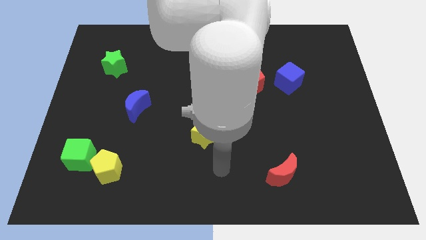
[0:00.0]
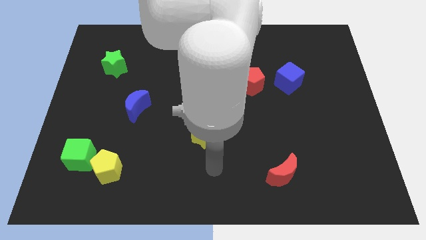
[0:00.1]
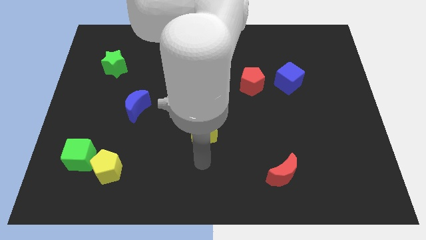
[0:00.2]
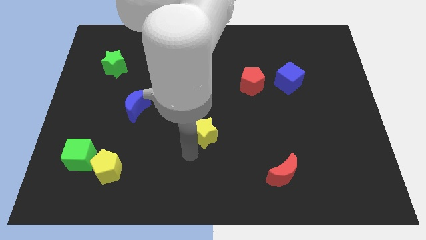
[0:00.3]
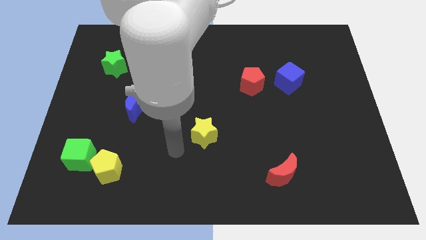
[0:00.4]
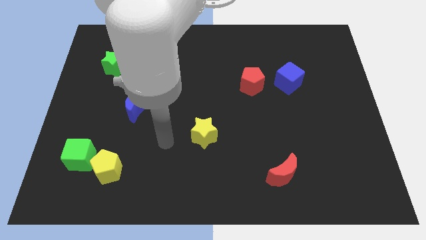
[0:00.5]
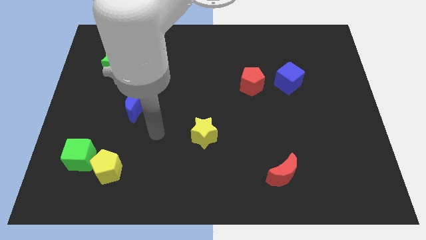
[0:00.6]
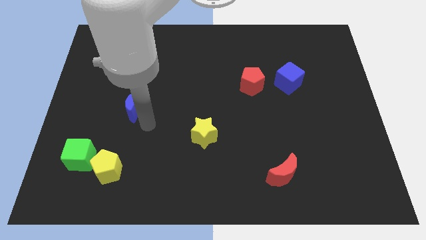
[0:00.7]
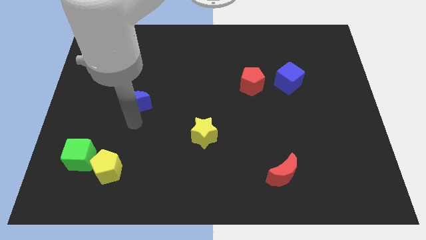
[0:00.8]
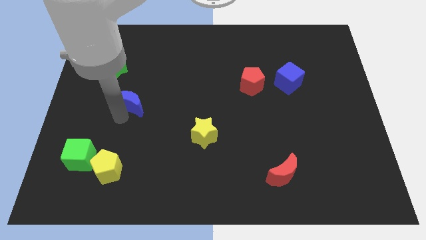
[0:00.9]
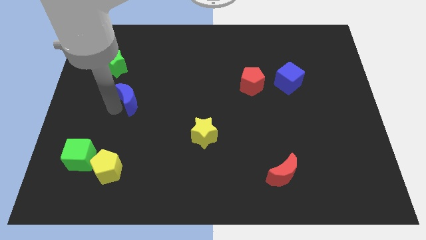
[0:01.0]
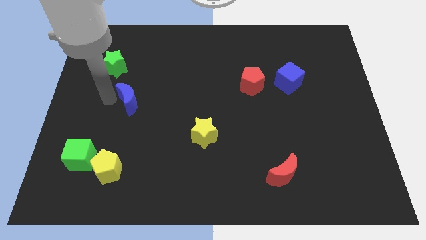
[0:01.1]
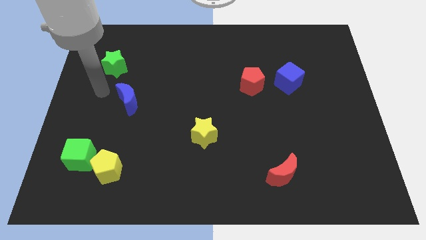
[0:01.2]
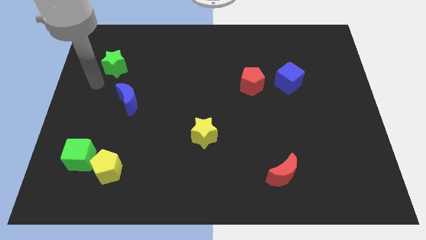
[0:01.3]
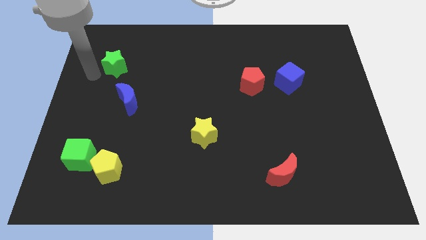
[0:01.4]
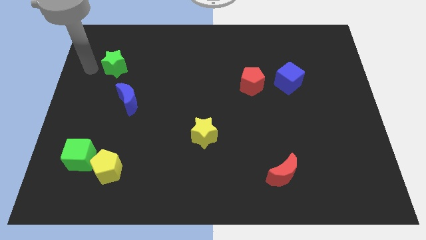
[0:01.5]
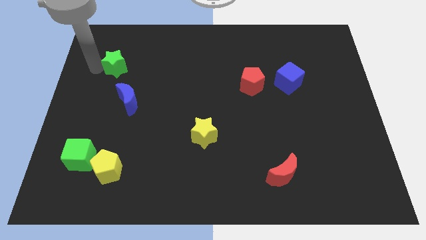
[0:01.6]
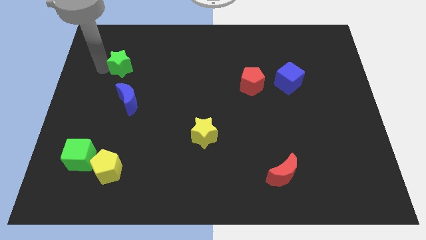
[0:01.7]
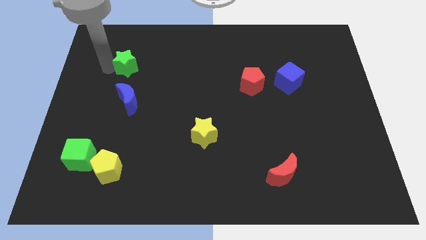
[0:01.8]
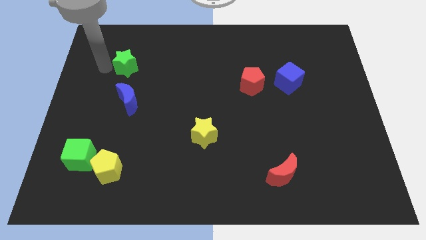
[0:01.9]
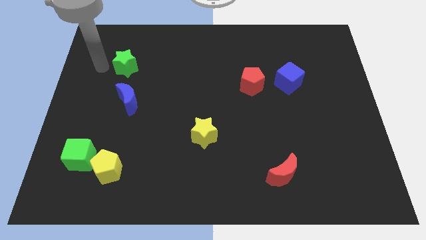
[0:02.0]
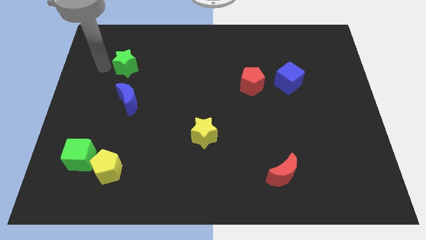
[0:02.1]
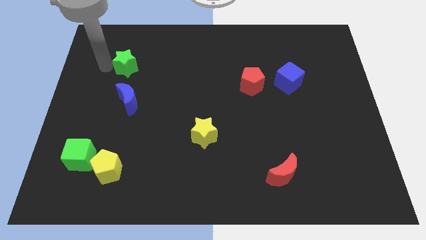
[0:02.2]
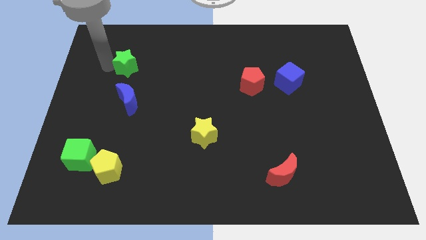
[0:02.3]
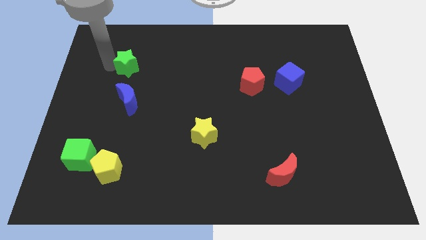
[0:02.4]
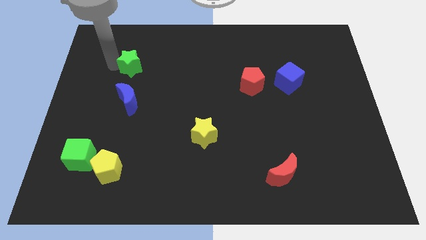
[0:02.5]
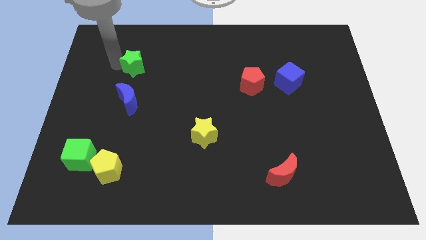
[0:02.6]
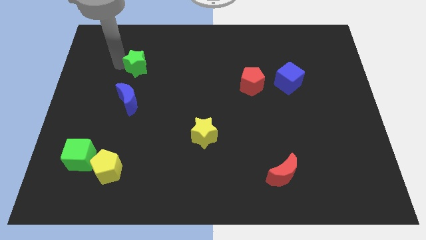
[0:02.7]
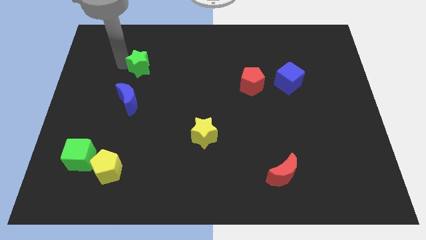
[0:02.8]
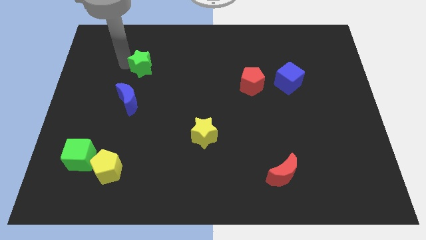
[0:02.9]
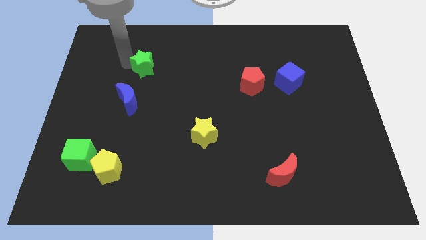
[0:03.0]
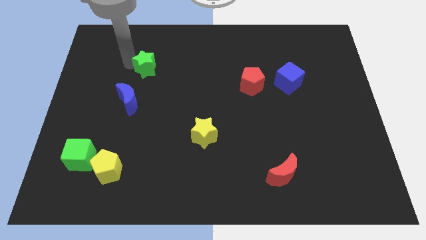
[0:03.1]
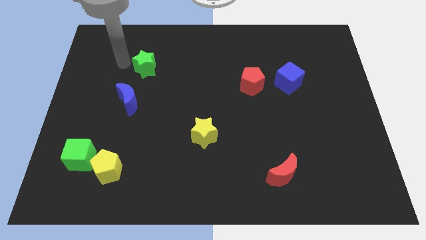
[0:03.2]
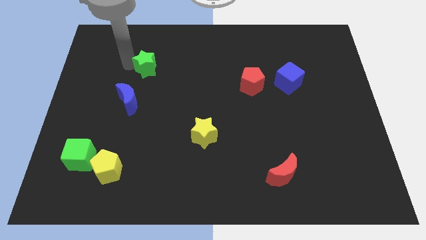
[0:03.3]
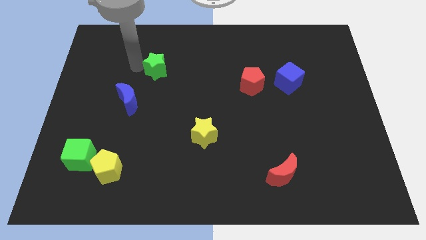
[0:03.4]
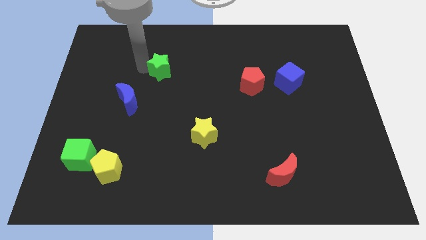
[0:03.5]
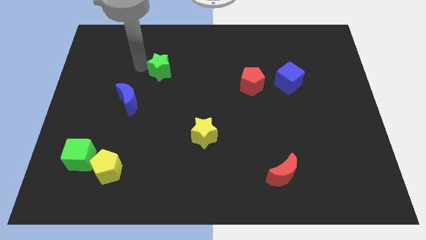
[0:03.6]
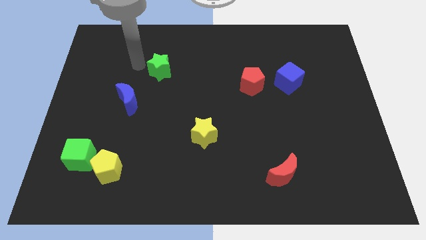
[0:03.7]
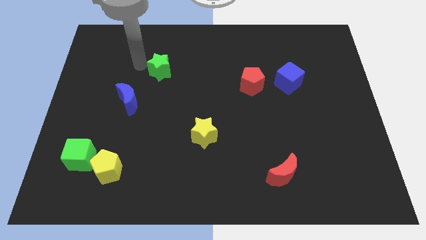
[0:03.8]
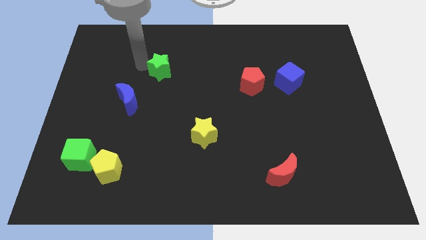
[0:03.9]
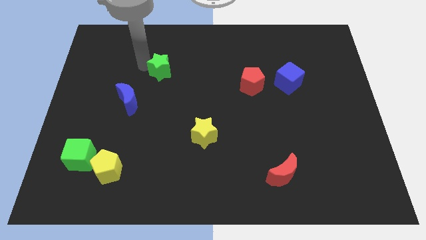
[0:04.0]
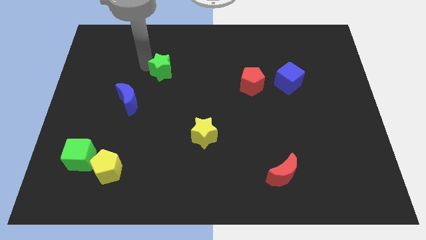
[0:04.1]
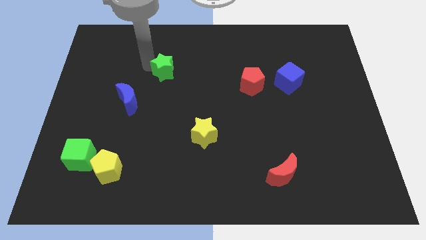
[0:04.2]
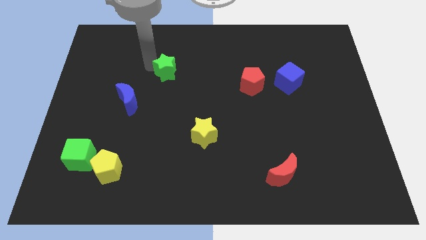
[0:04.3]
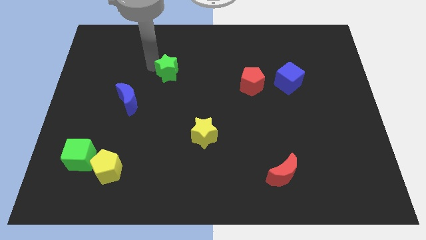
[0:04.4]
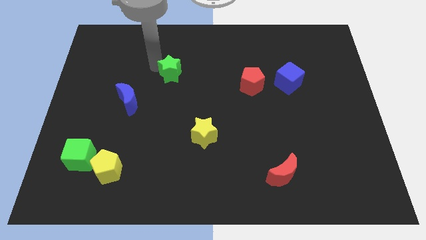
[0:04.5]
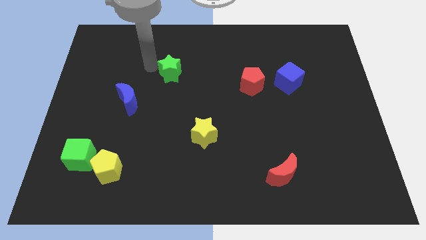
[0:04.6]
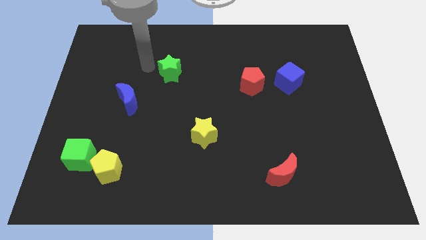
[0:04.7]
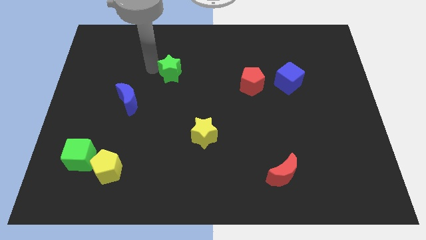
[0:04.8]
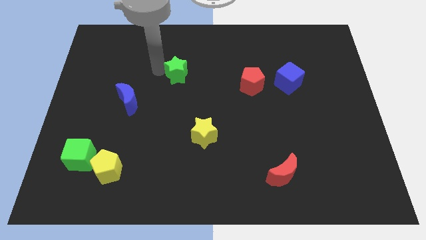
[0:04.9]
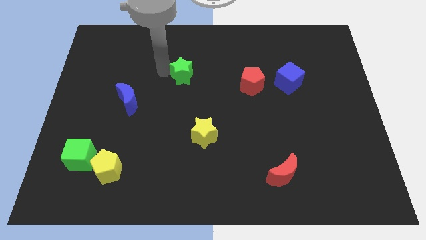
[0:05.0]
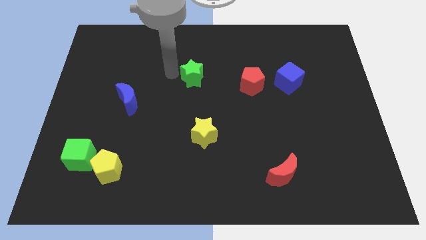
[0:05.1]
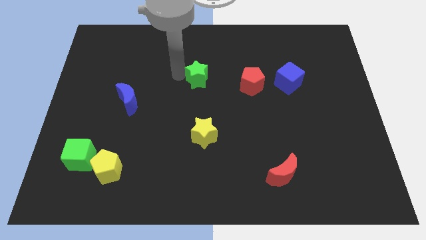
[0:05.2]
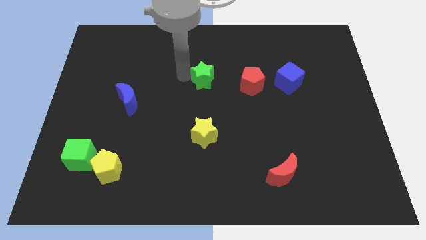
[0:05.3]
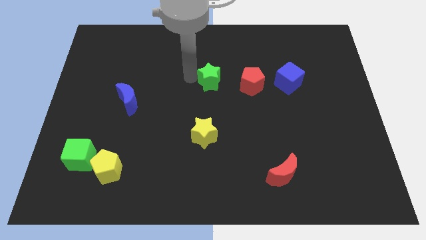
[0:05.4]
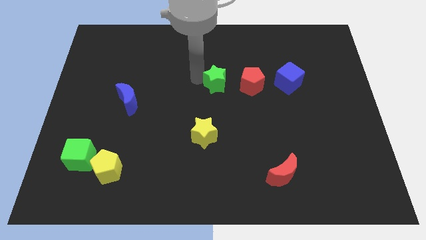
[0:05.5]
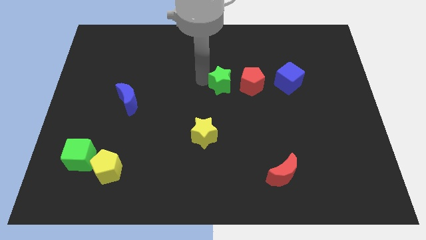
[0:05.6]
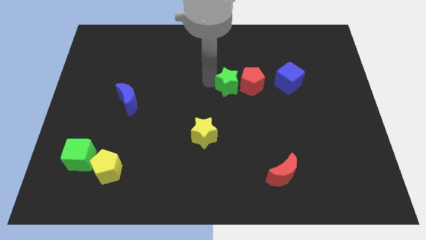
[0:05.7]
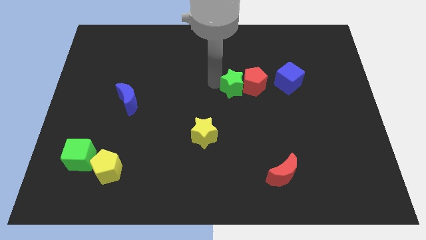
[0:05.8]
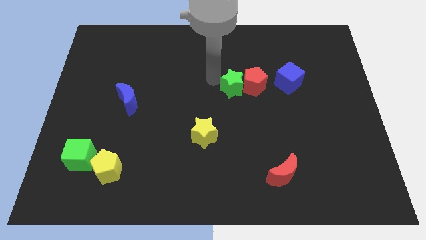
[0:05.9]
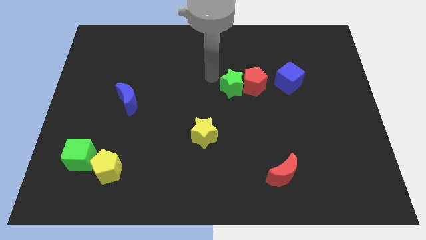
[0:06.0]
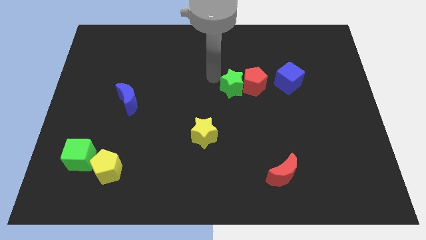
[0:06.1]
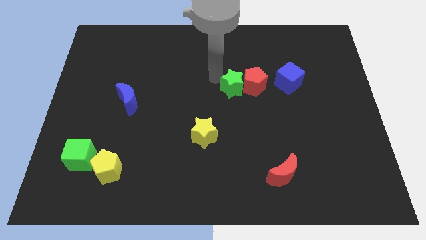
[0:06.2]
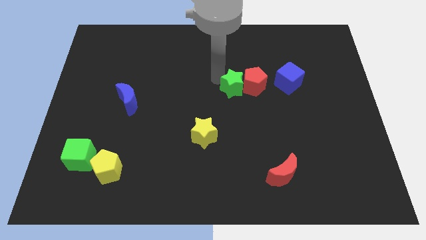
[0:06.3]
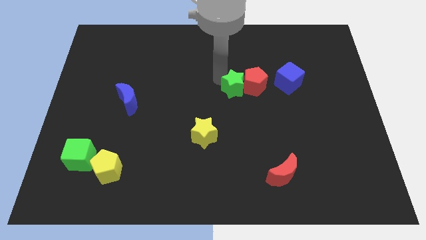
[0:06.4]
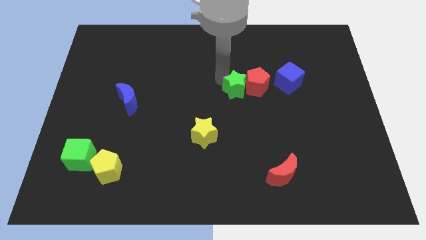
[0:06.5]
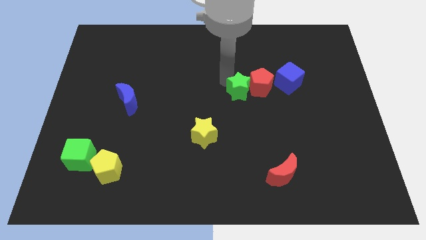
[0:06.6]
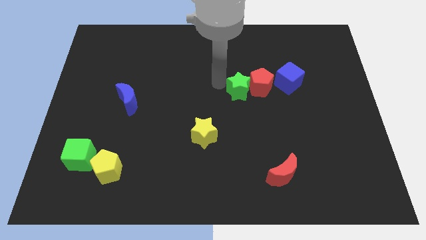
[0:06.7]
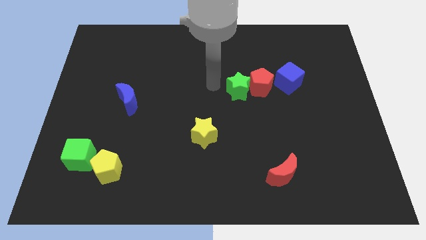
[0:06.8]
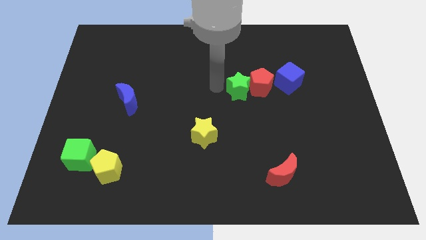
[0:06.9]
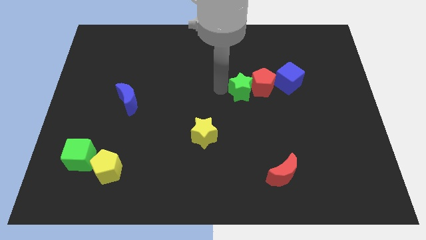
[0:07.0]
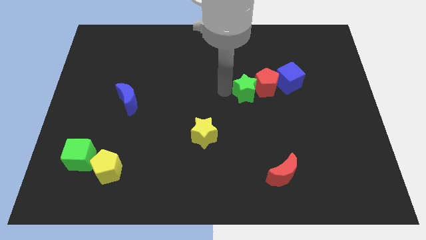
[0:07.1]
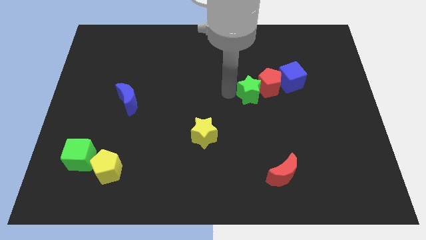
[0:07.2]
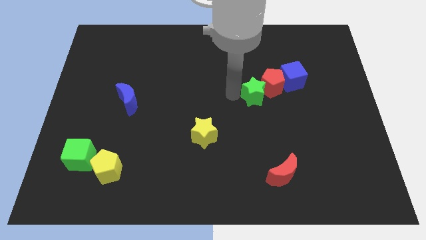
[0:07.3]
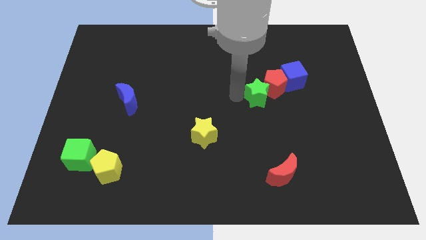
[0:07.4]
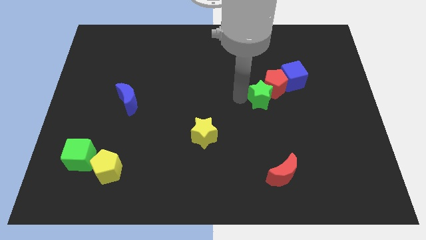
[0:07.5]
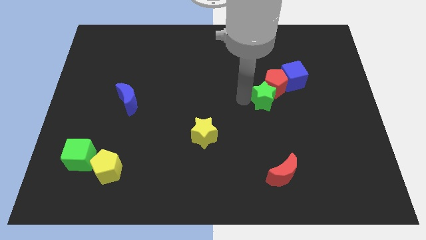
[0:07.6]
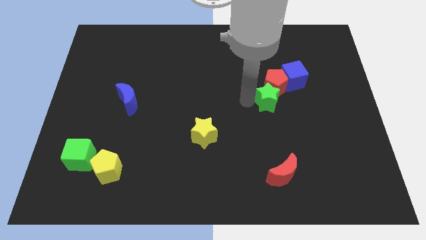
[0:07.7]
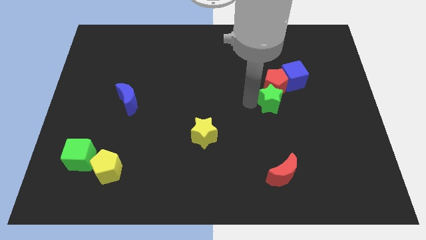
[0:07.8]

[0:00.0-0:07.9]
push the green star to the bottom right side of the red pentagon
